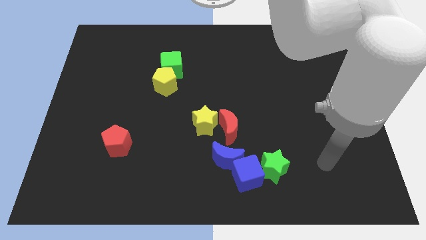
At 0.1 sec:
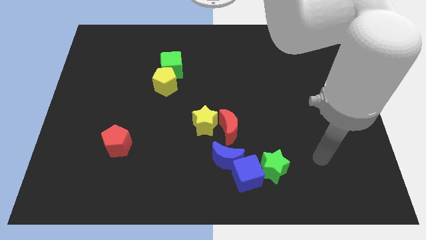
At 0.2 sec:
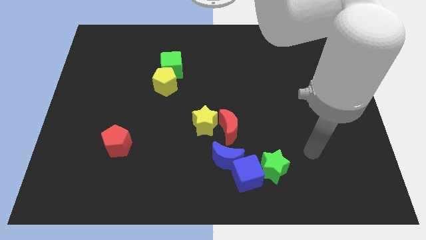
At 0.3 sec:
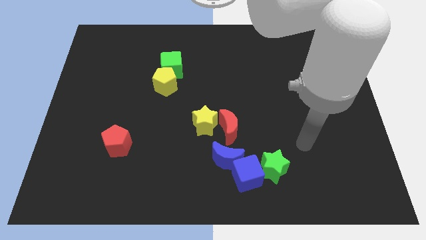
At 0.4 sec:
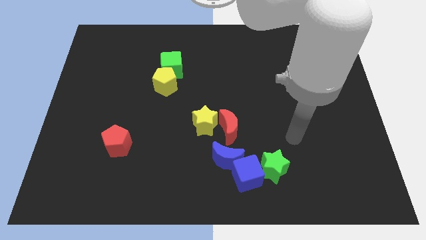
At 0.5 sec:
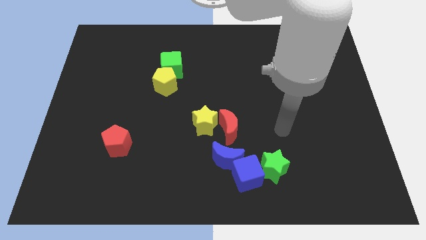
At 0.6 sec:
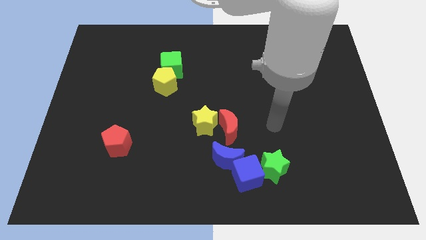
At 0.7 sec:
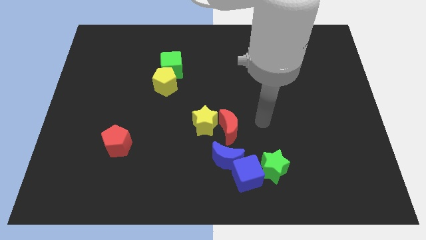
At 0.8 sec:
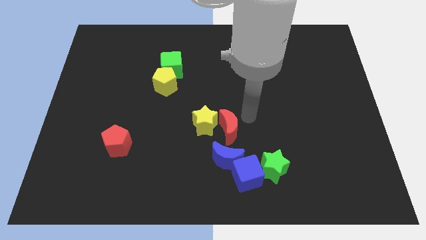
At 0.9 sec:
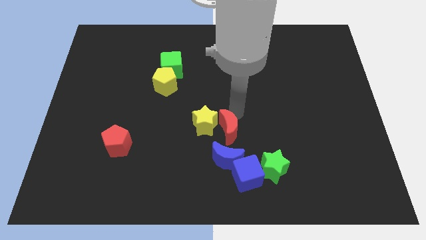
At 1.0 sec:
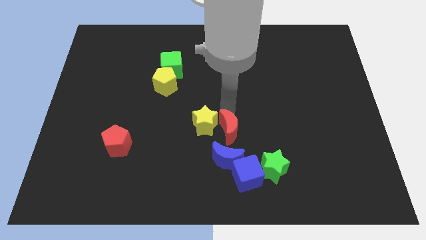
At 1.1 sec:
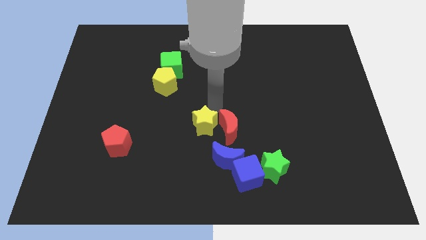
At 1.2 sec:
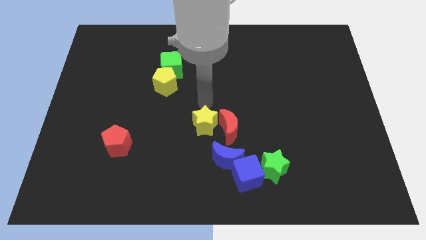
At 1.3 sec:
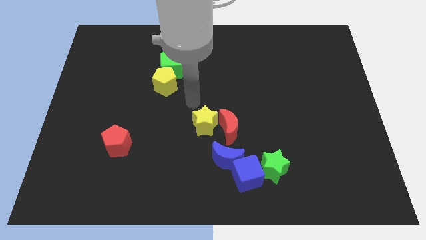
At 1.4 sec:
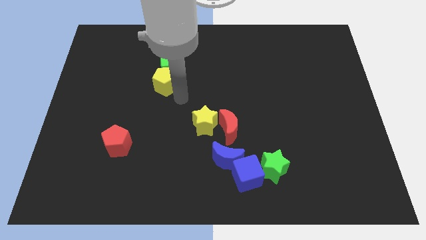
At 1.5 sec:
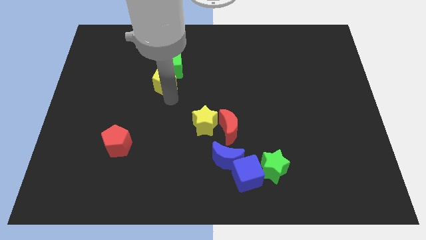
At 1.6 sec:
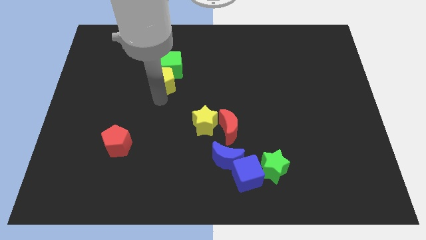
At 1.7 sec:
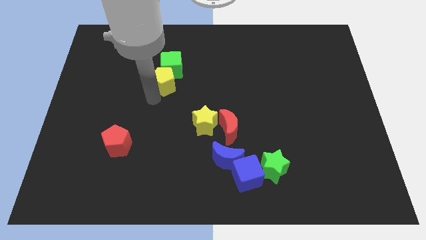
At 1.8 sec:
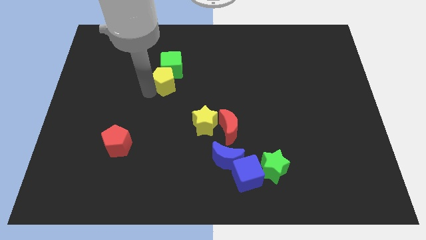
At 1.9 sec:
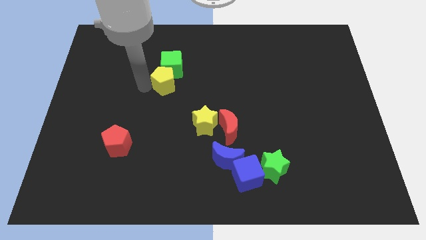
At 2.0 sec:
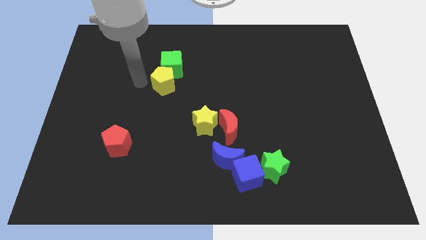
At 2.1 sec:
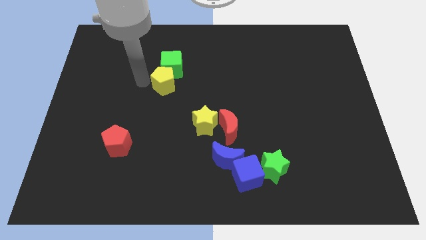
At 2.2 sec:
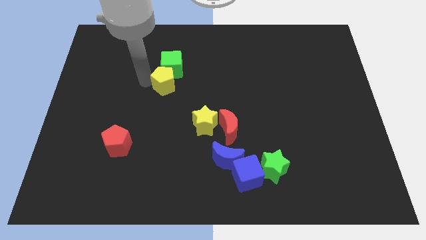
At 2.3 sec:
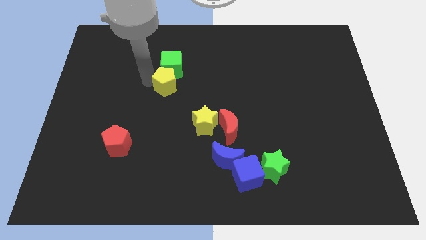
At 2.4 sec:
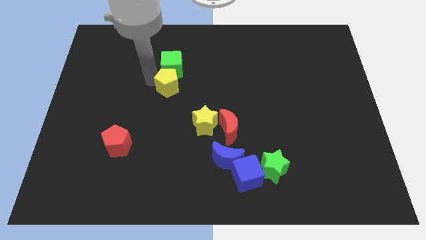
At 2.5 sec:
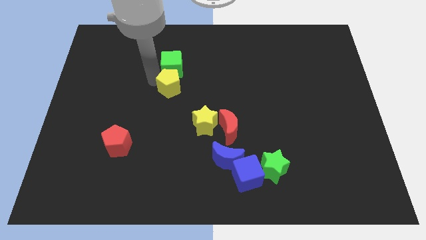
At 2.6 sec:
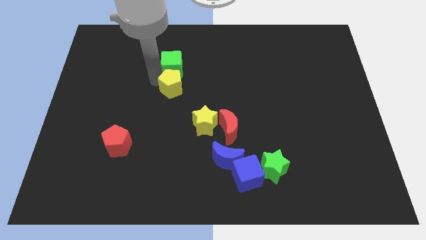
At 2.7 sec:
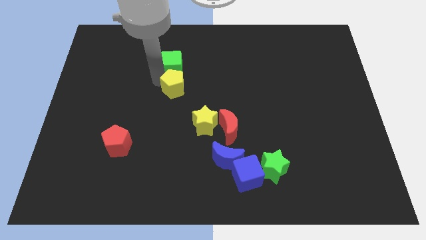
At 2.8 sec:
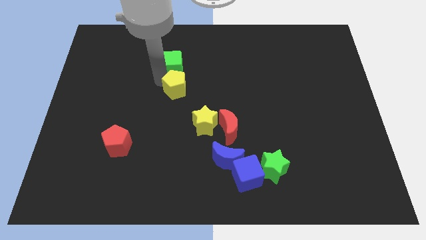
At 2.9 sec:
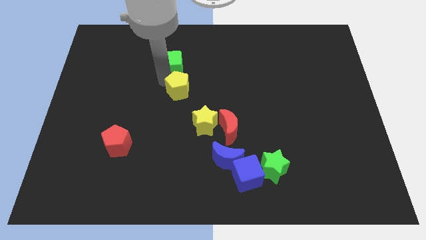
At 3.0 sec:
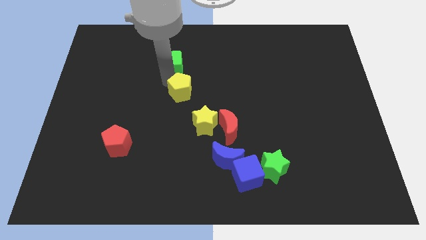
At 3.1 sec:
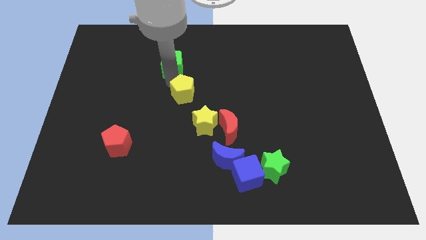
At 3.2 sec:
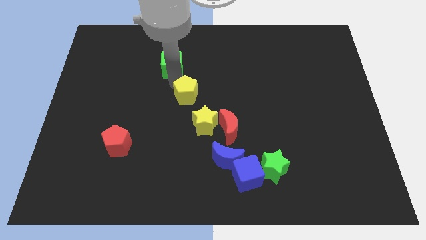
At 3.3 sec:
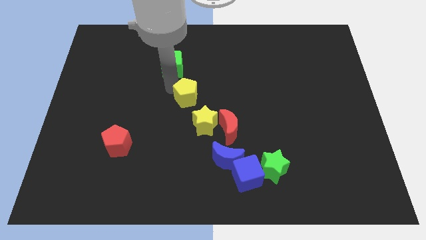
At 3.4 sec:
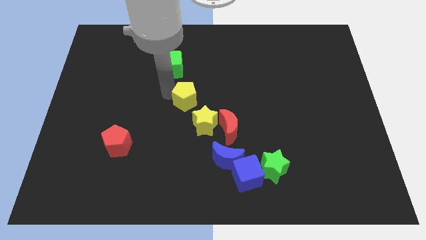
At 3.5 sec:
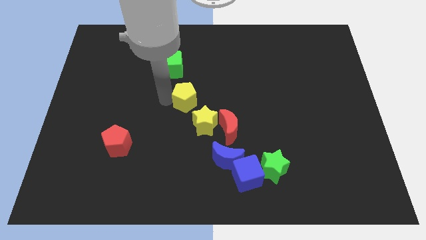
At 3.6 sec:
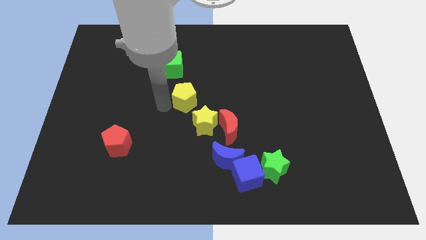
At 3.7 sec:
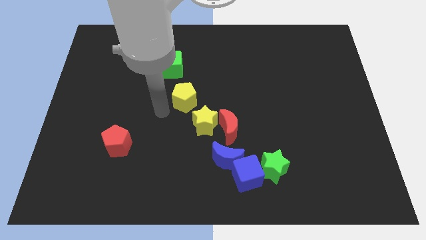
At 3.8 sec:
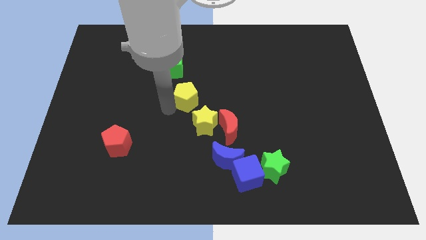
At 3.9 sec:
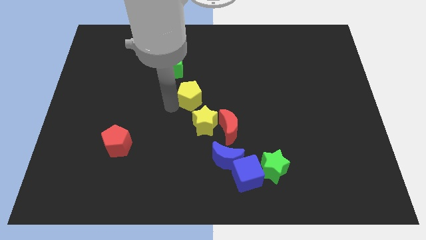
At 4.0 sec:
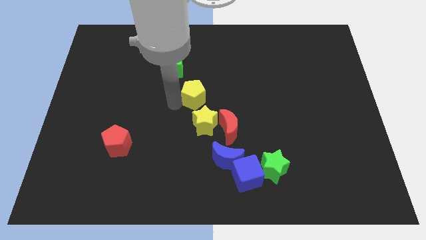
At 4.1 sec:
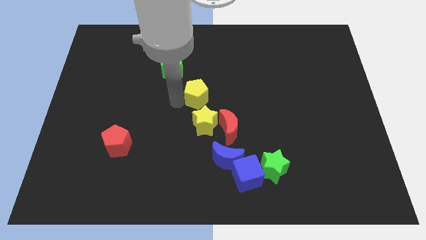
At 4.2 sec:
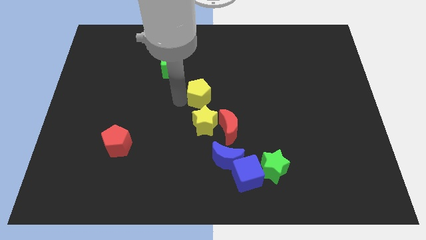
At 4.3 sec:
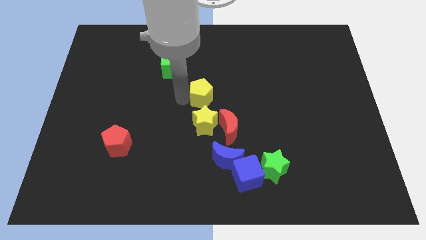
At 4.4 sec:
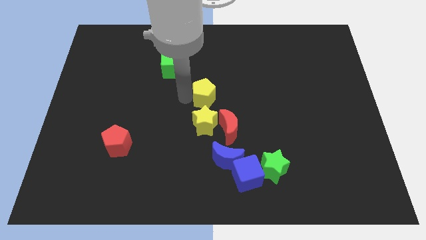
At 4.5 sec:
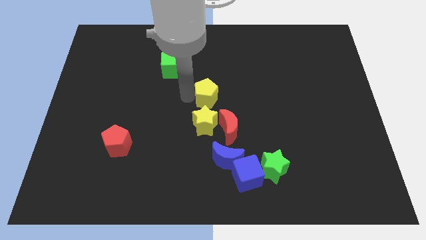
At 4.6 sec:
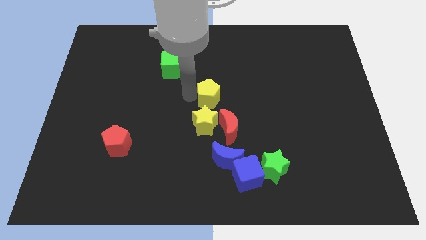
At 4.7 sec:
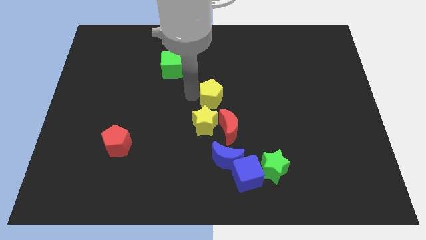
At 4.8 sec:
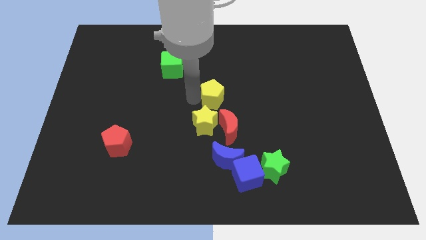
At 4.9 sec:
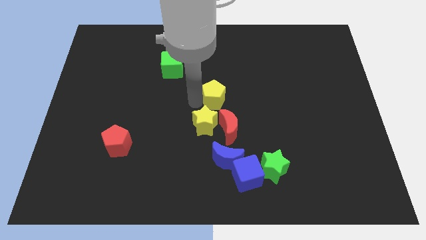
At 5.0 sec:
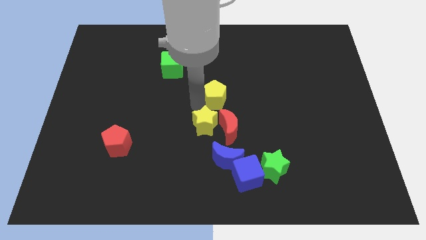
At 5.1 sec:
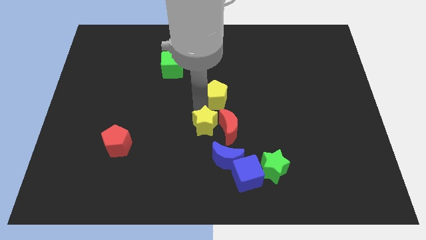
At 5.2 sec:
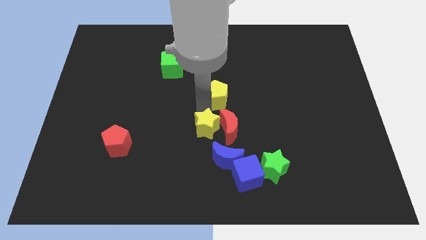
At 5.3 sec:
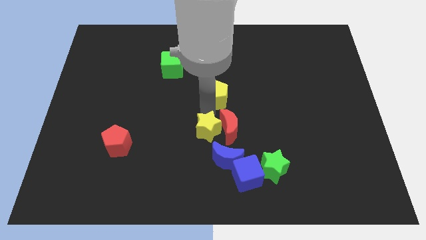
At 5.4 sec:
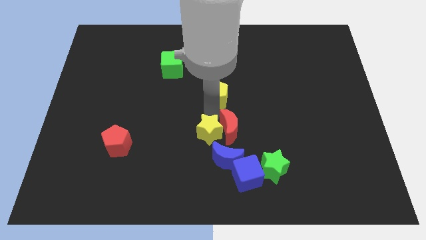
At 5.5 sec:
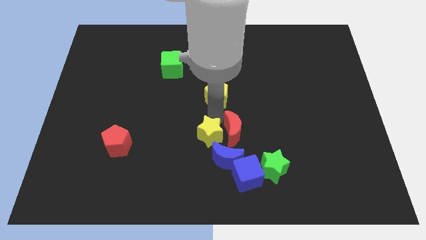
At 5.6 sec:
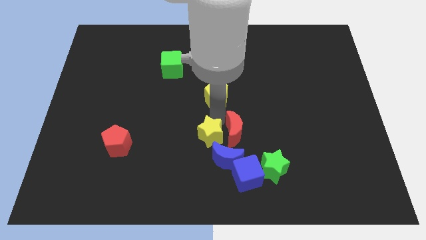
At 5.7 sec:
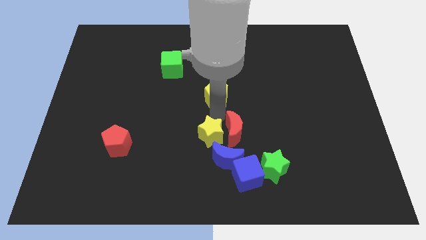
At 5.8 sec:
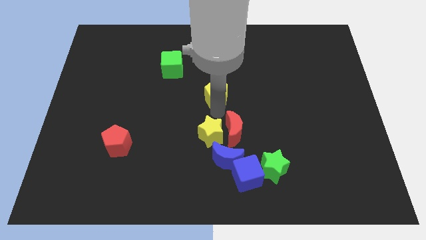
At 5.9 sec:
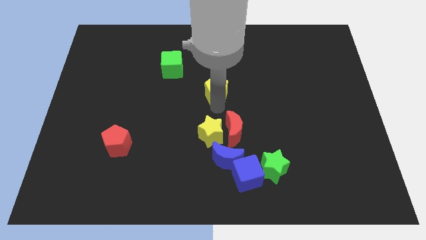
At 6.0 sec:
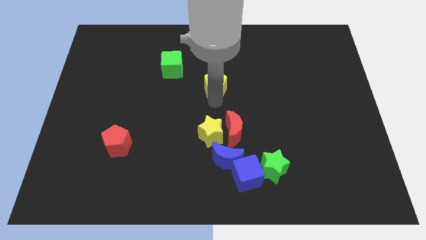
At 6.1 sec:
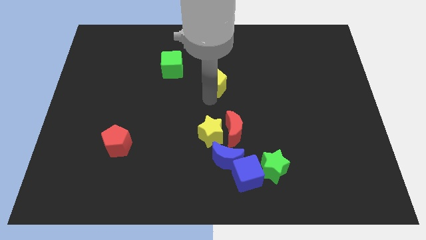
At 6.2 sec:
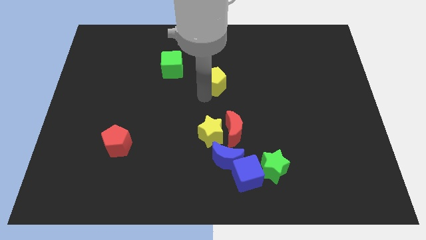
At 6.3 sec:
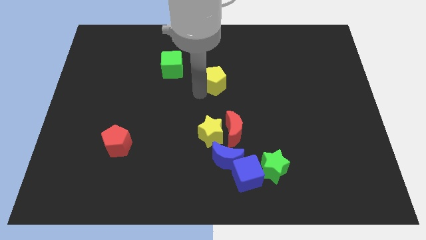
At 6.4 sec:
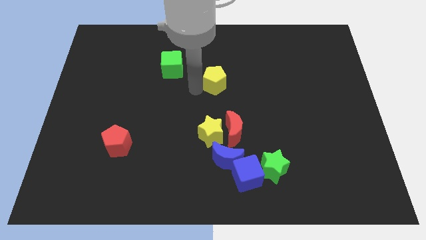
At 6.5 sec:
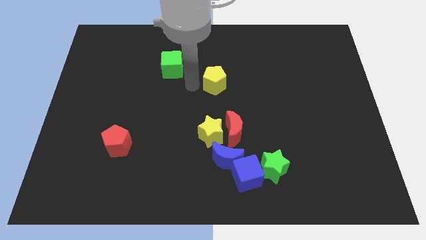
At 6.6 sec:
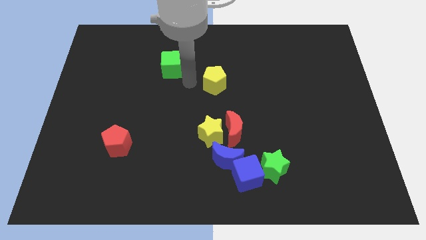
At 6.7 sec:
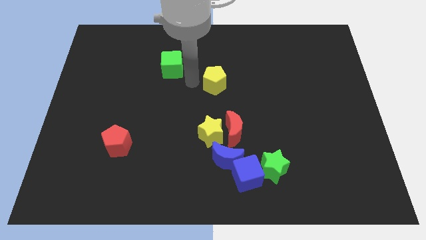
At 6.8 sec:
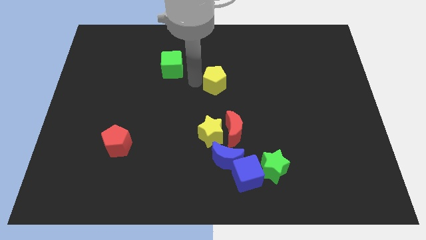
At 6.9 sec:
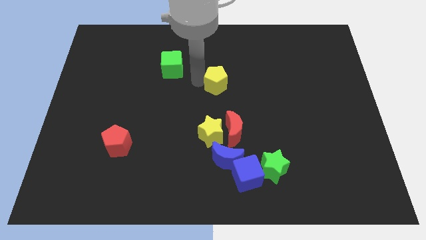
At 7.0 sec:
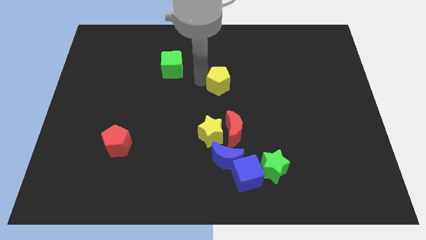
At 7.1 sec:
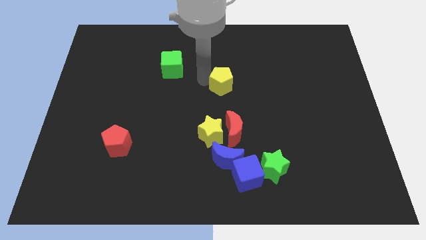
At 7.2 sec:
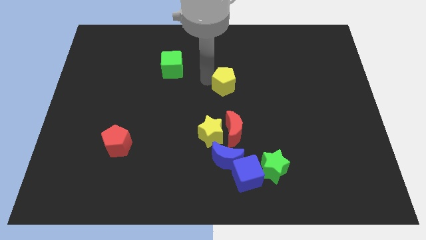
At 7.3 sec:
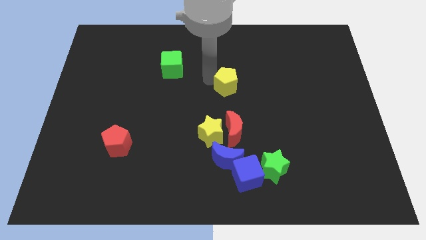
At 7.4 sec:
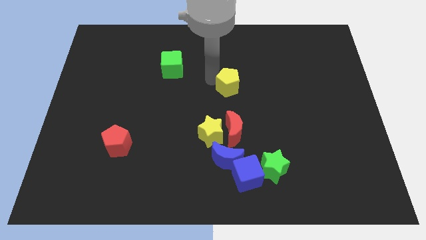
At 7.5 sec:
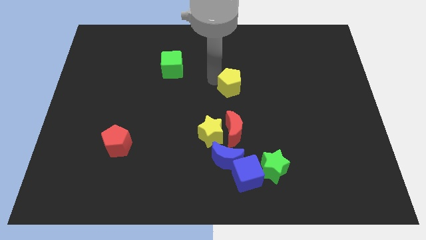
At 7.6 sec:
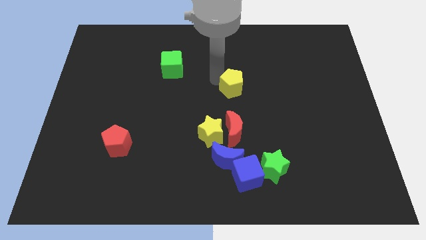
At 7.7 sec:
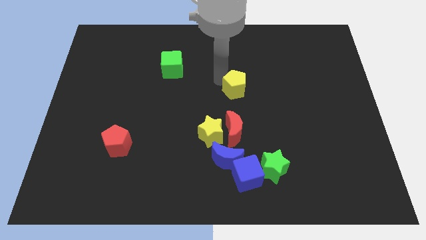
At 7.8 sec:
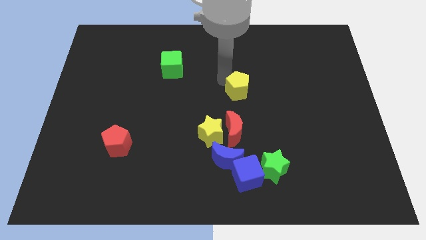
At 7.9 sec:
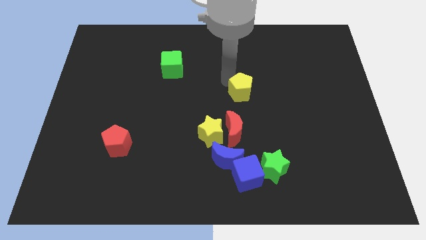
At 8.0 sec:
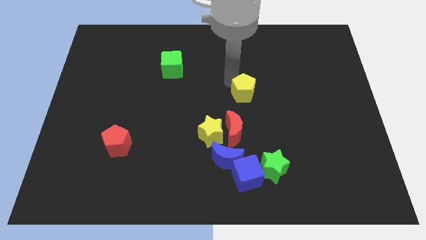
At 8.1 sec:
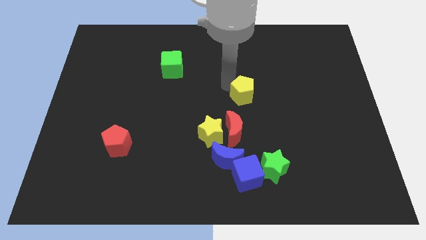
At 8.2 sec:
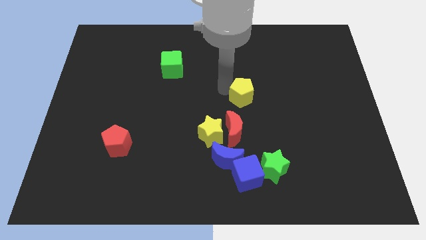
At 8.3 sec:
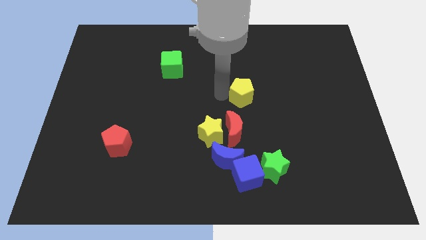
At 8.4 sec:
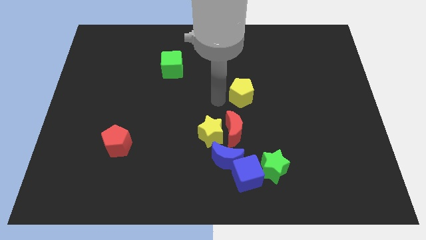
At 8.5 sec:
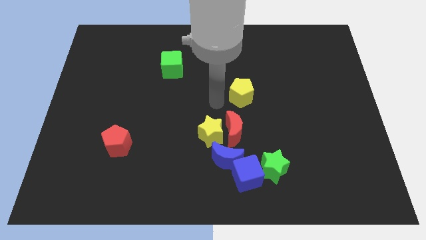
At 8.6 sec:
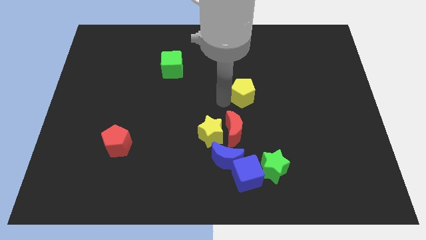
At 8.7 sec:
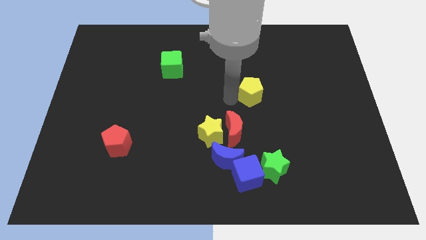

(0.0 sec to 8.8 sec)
slide the yellow pentagon right
